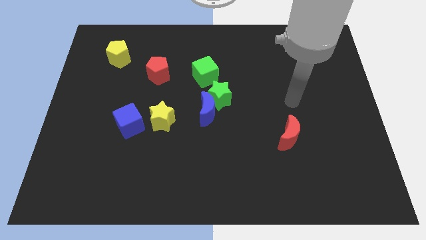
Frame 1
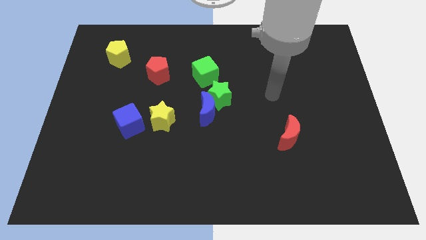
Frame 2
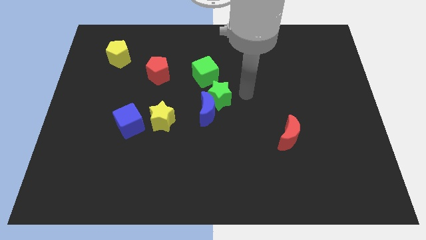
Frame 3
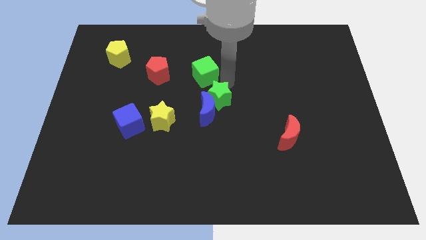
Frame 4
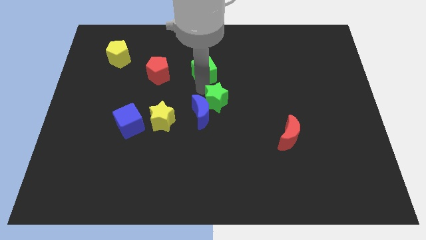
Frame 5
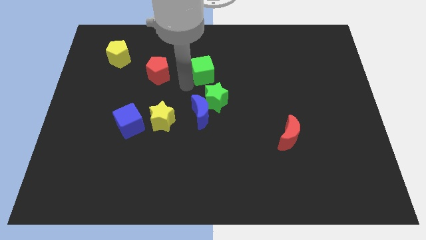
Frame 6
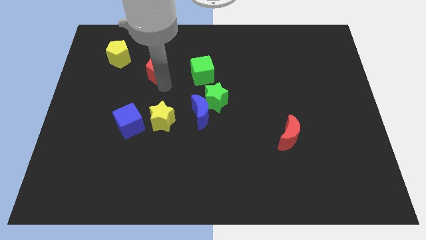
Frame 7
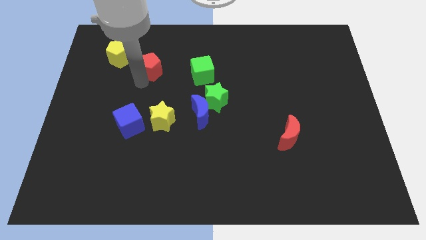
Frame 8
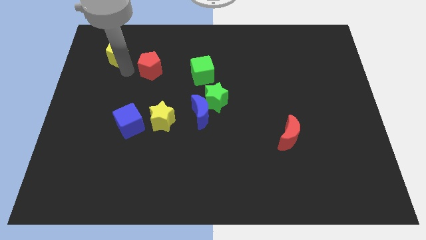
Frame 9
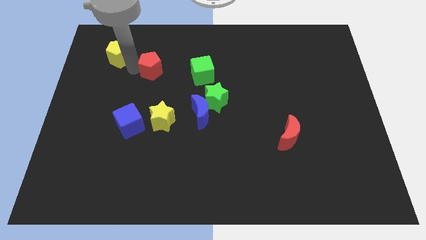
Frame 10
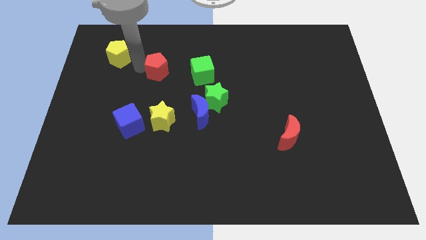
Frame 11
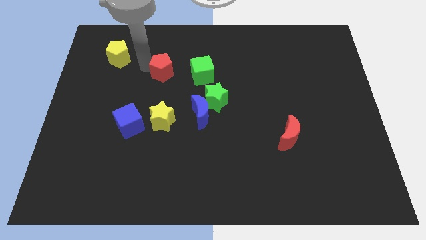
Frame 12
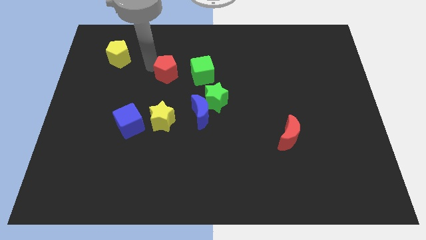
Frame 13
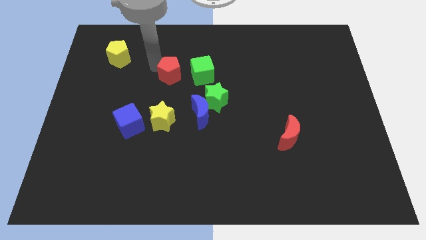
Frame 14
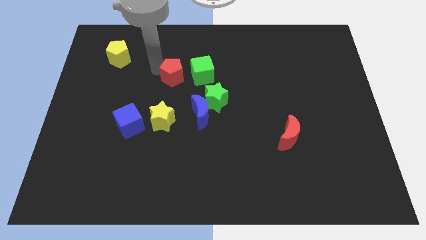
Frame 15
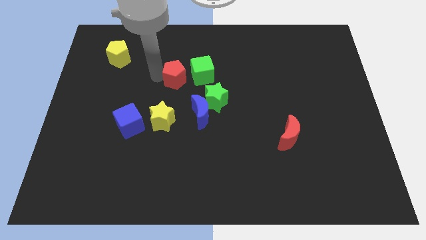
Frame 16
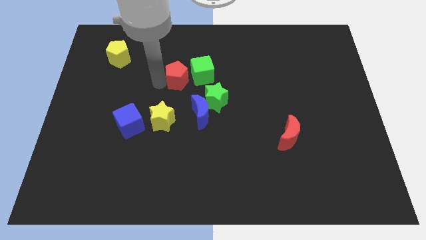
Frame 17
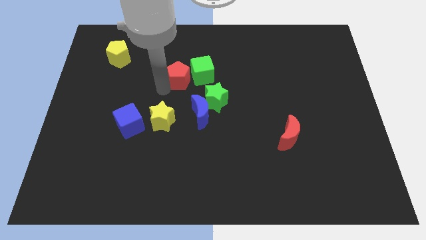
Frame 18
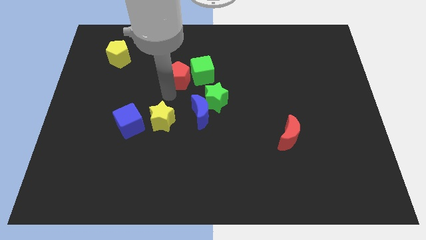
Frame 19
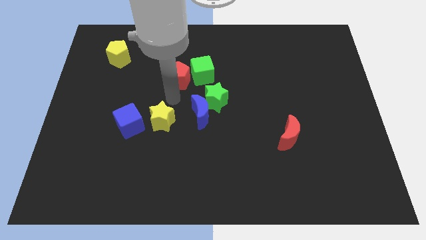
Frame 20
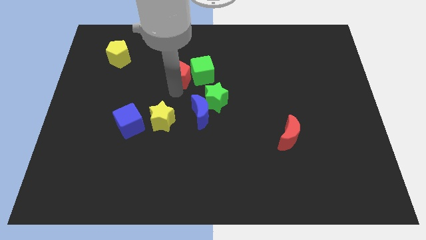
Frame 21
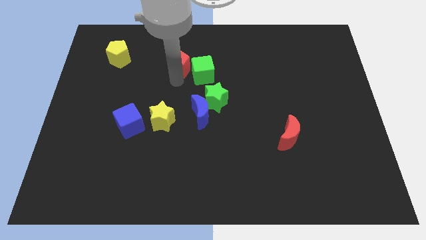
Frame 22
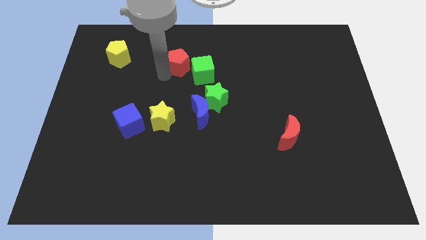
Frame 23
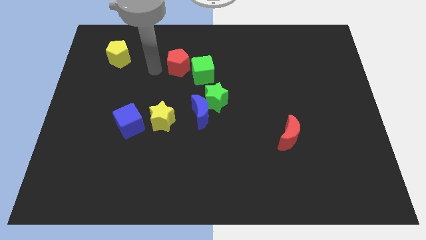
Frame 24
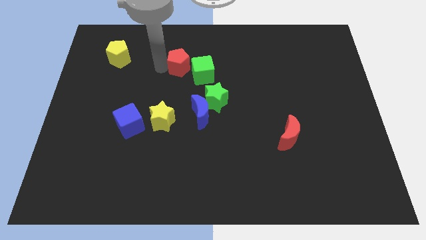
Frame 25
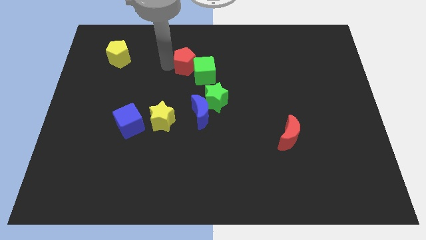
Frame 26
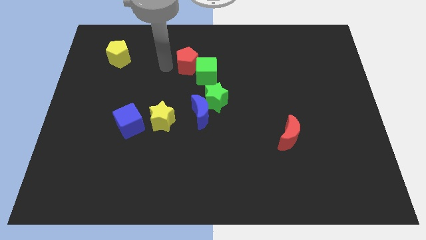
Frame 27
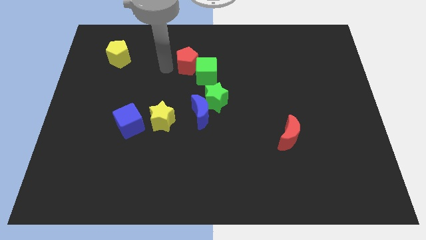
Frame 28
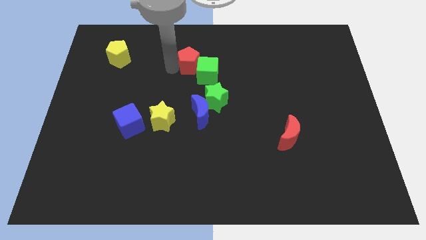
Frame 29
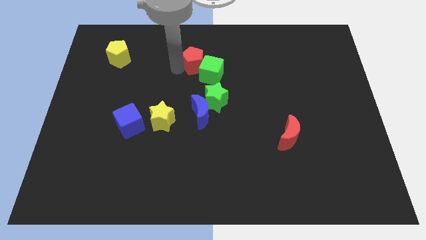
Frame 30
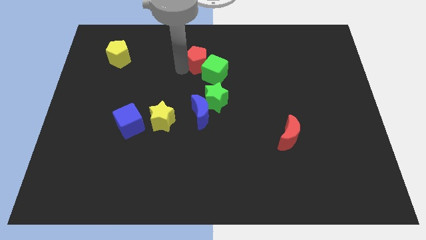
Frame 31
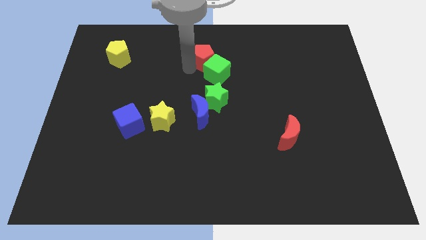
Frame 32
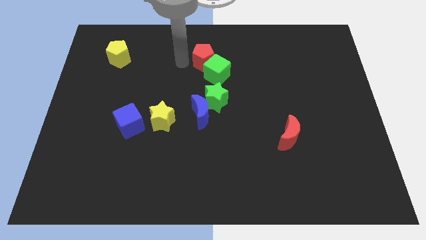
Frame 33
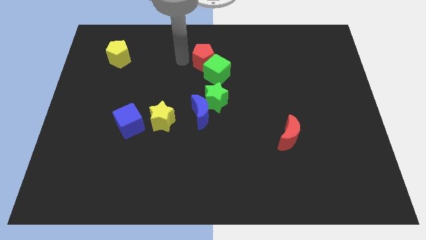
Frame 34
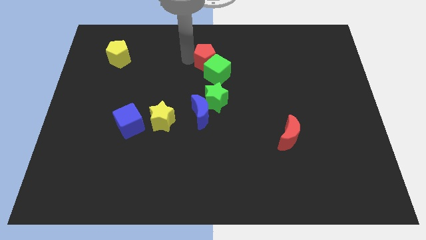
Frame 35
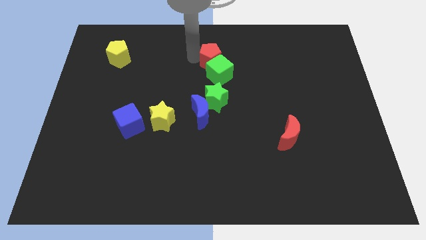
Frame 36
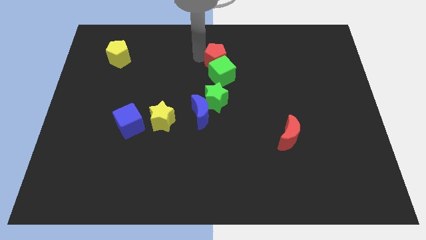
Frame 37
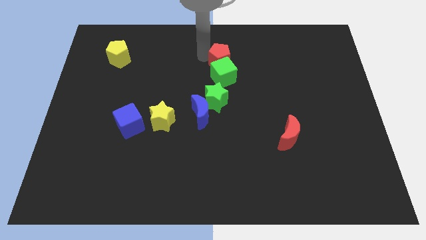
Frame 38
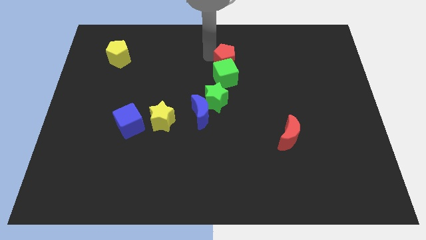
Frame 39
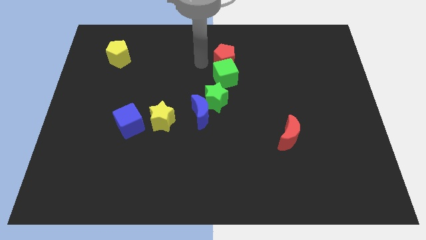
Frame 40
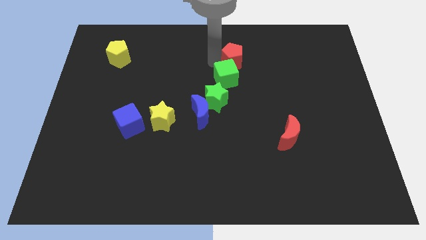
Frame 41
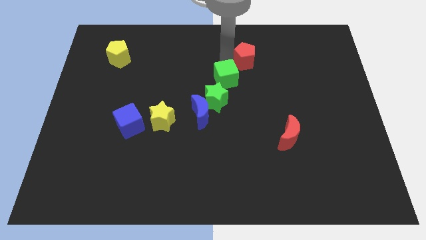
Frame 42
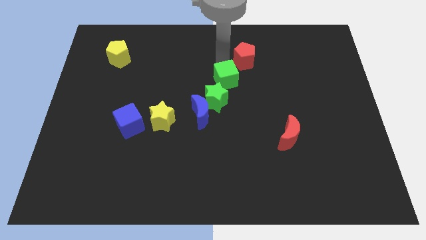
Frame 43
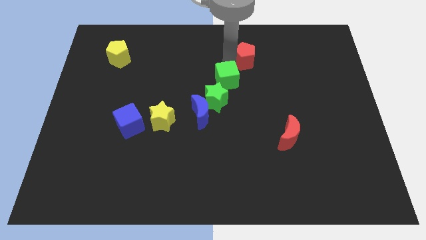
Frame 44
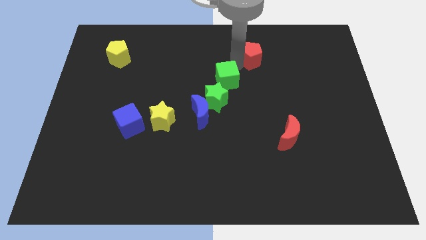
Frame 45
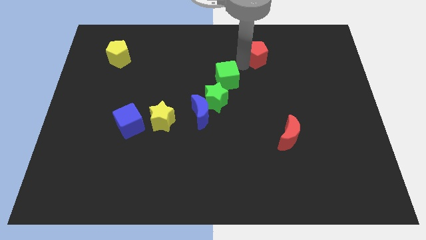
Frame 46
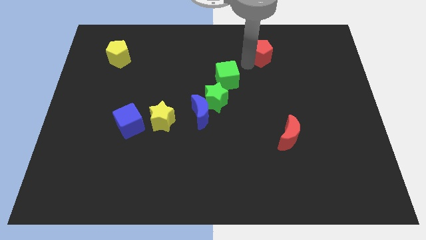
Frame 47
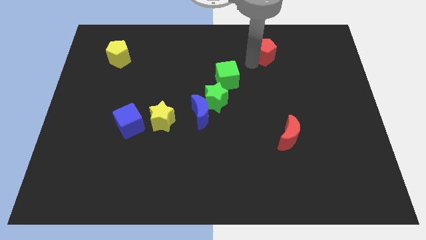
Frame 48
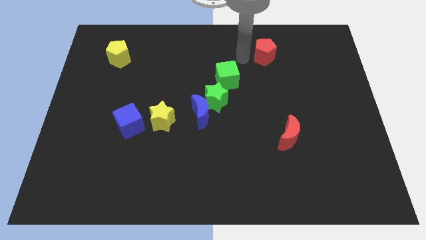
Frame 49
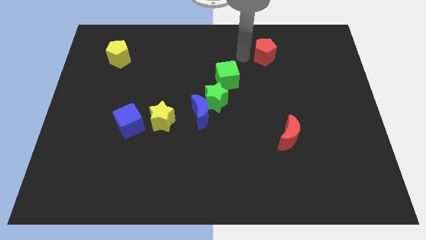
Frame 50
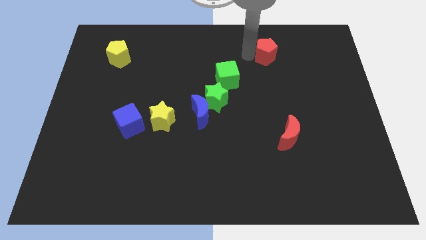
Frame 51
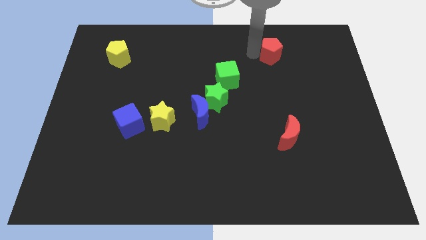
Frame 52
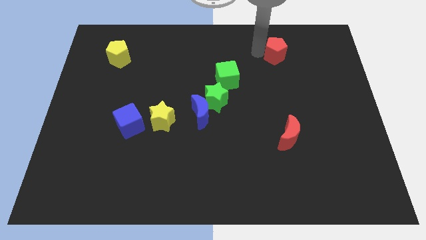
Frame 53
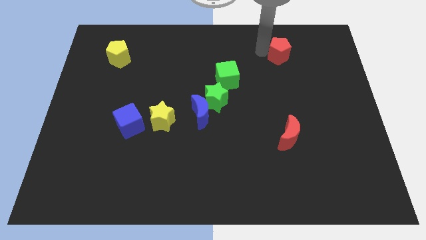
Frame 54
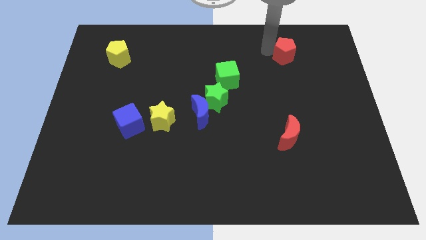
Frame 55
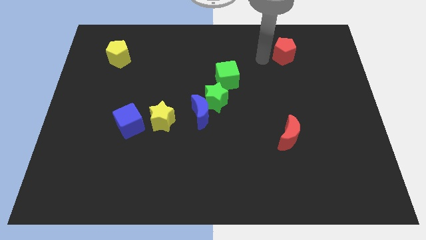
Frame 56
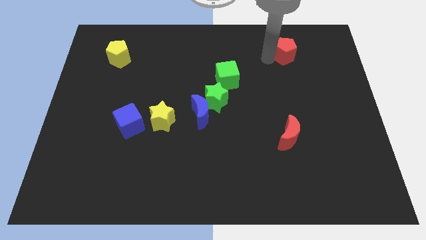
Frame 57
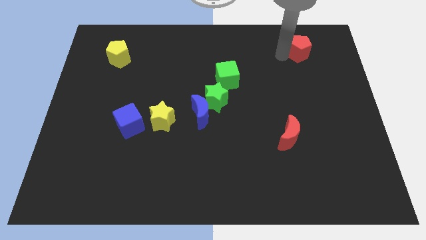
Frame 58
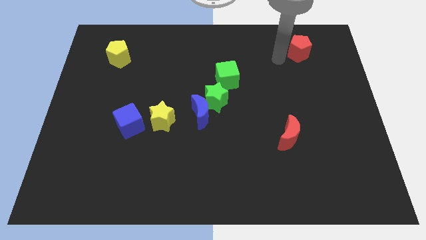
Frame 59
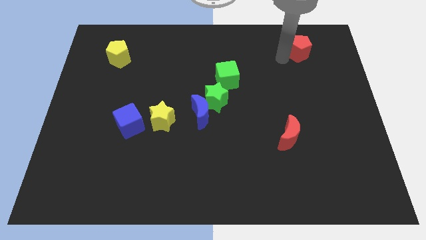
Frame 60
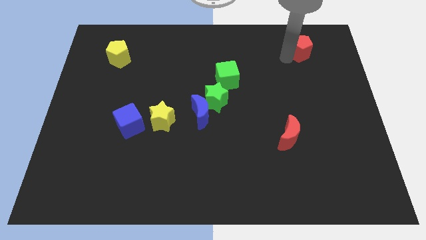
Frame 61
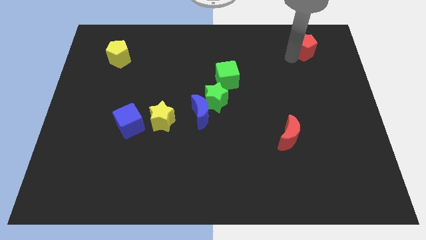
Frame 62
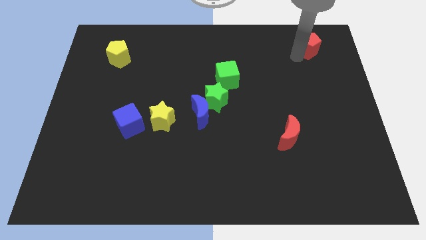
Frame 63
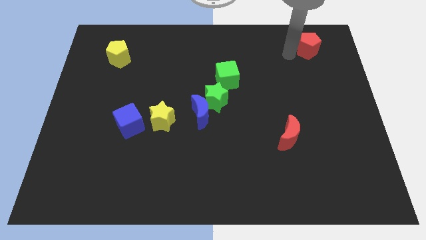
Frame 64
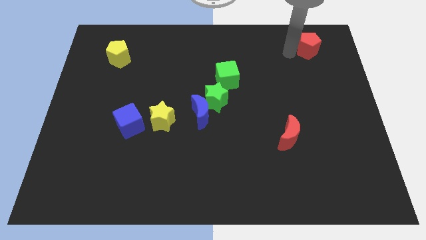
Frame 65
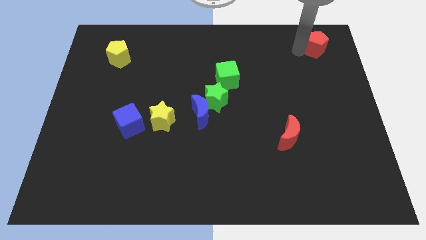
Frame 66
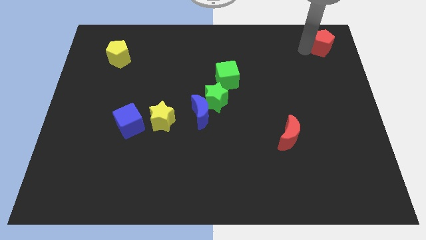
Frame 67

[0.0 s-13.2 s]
move the red pentagon to the top right
